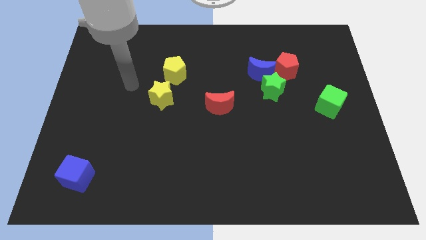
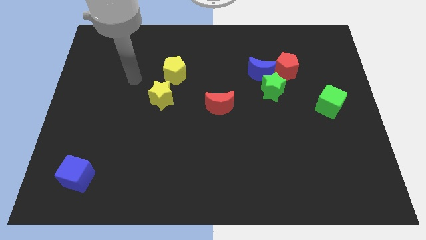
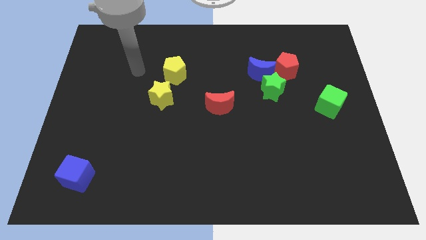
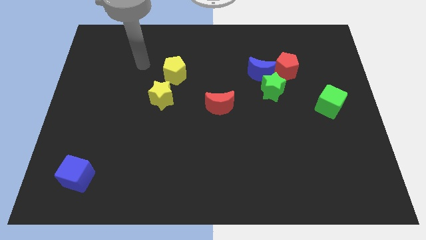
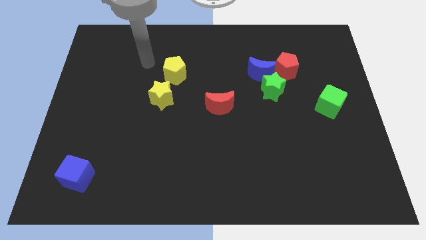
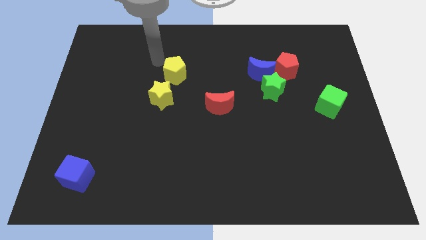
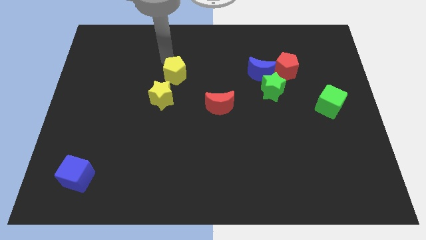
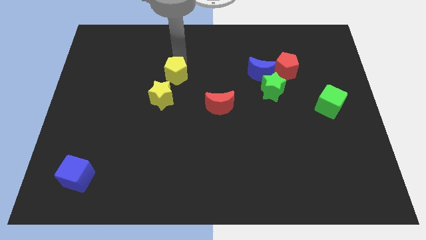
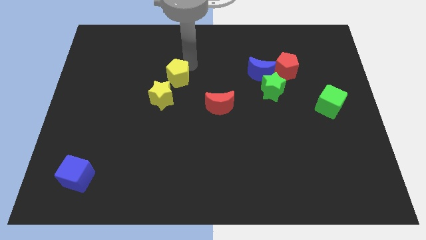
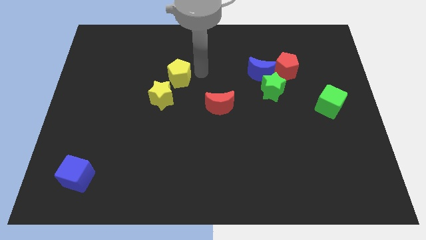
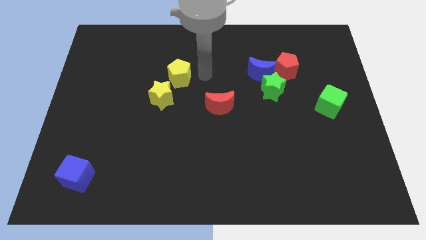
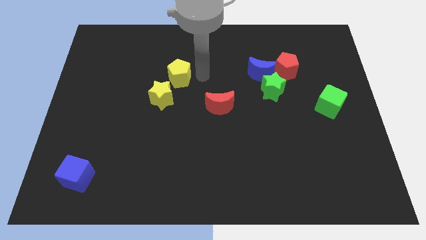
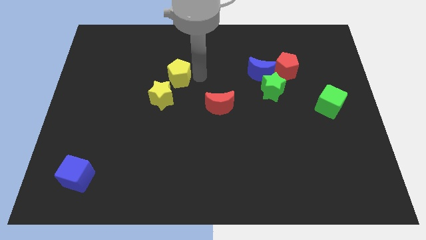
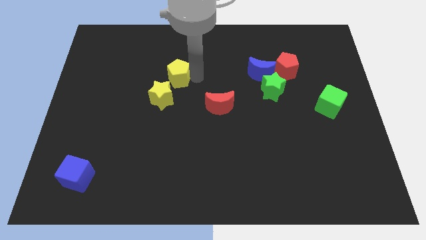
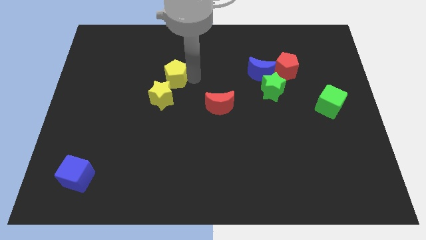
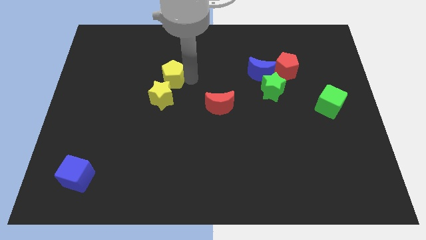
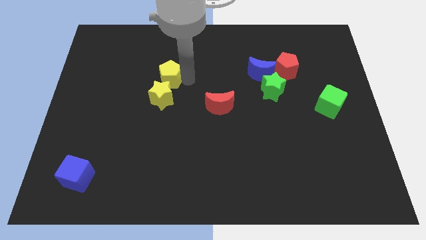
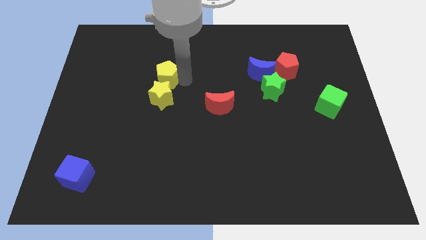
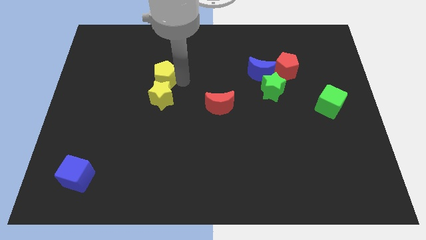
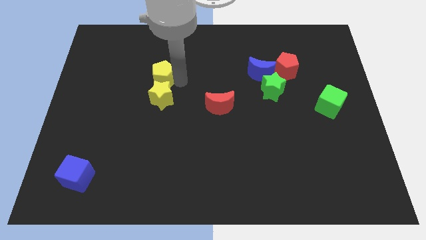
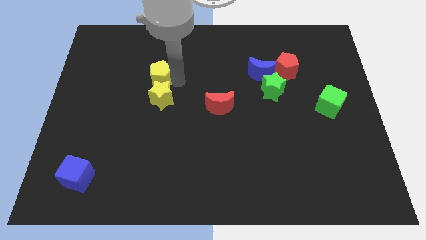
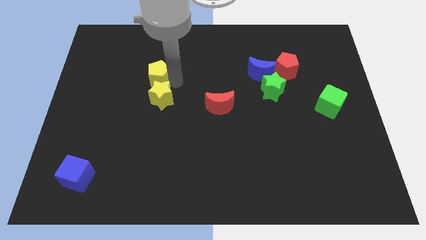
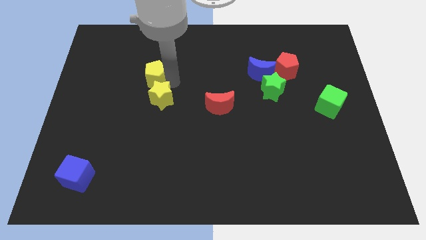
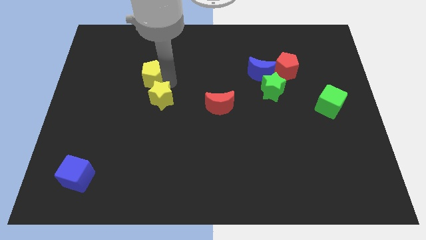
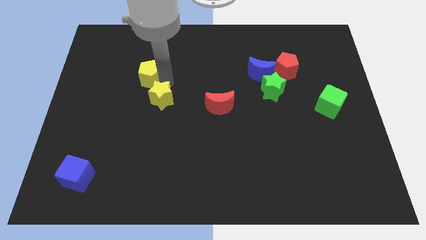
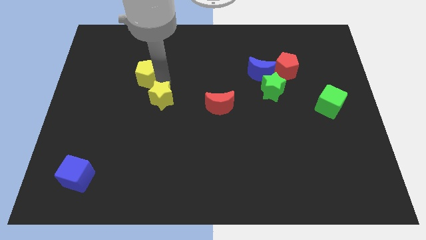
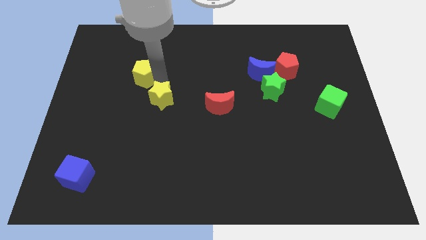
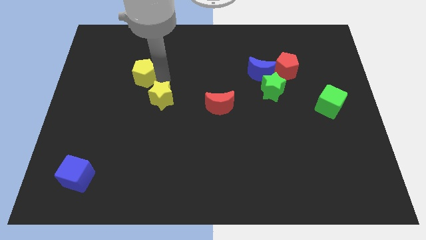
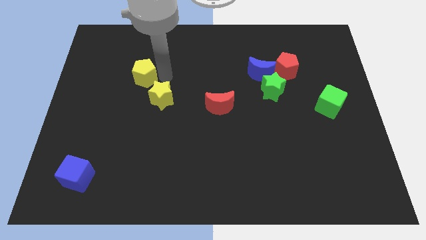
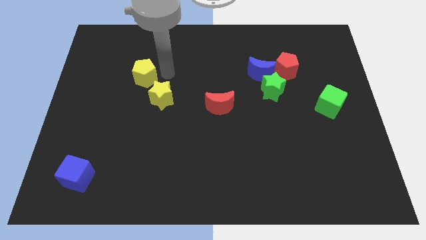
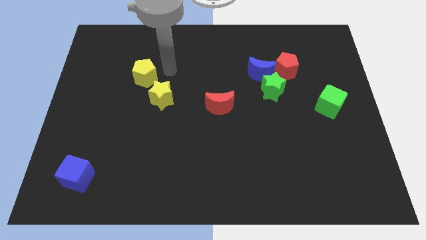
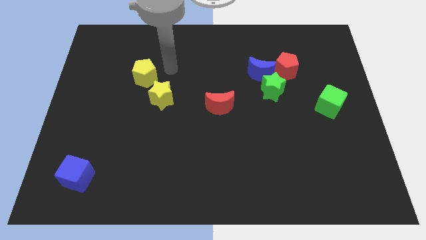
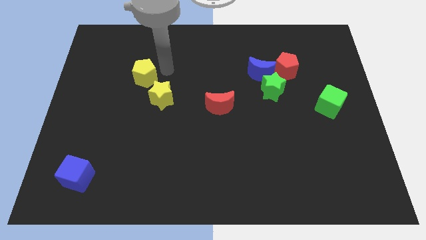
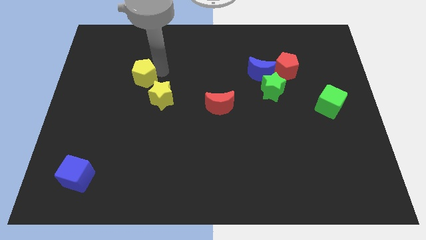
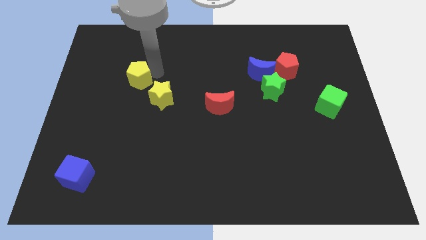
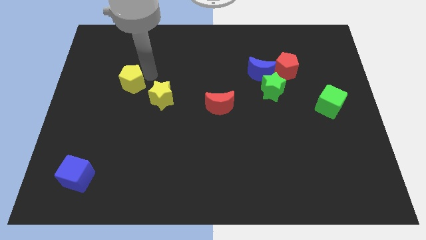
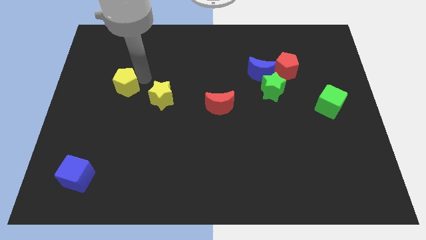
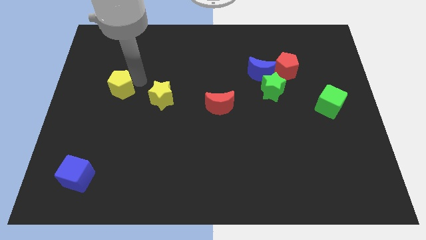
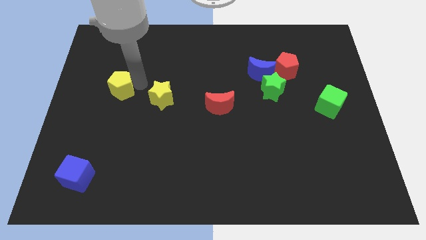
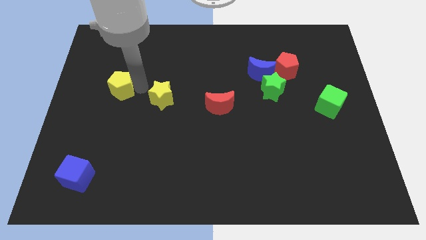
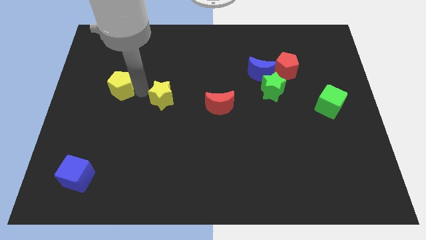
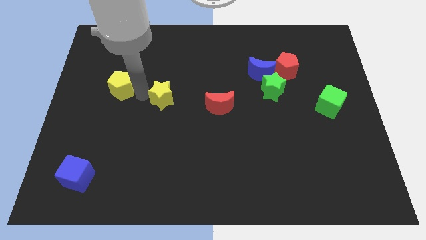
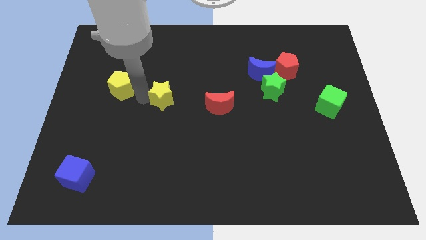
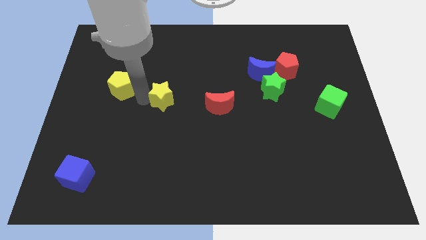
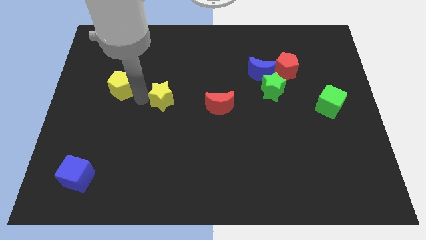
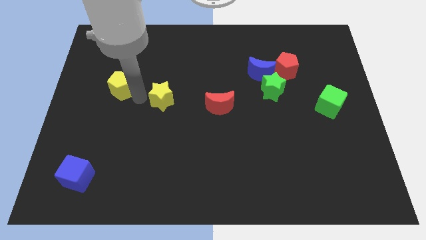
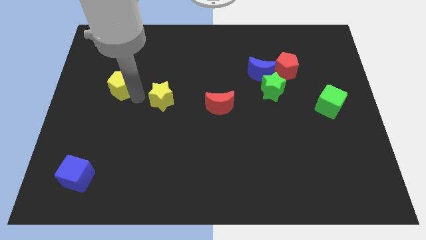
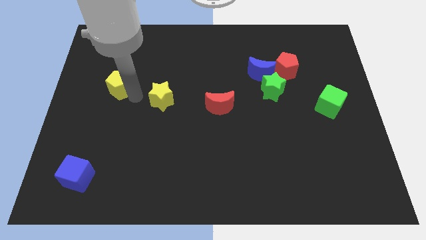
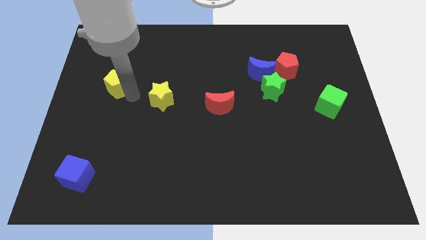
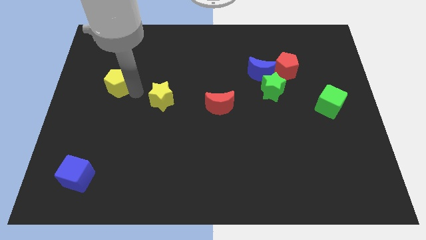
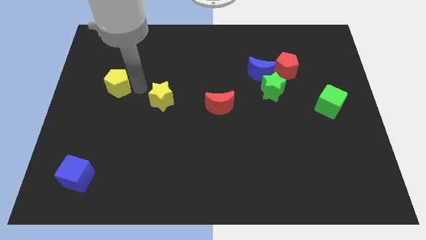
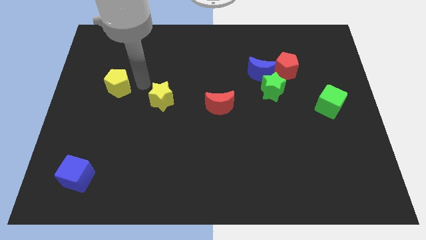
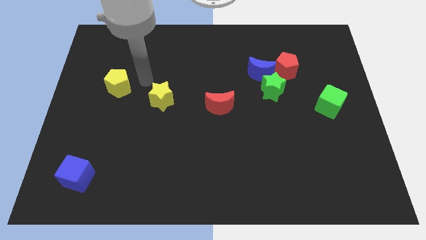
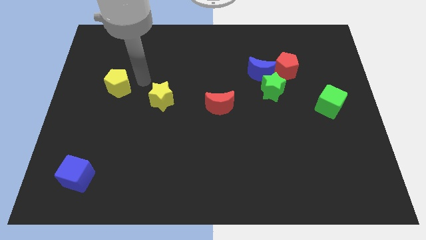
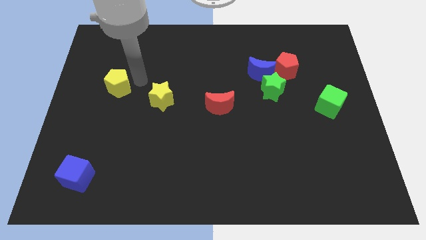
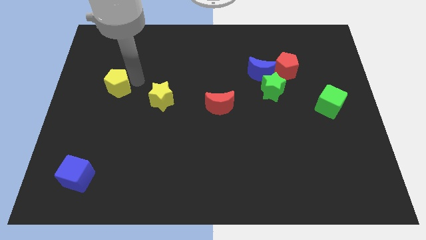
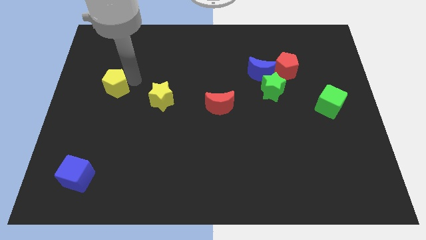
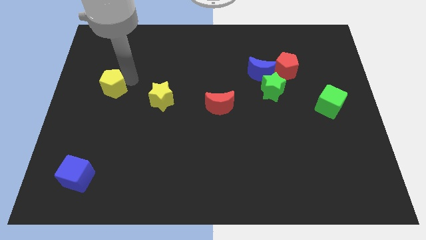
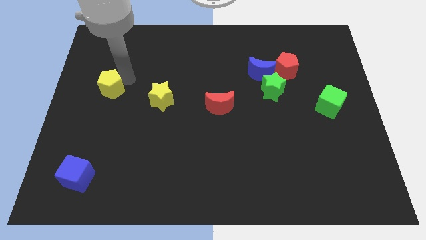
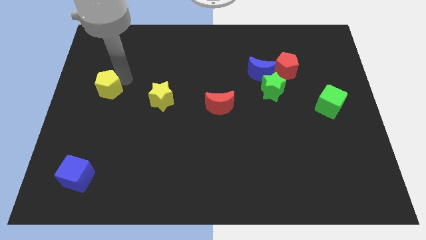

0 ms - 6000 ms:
move the yellow pentagon to the left side of the board

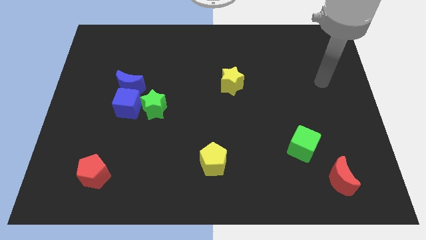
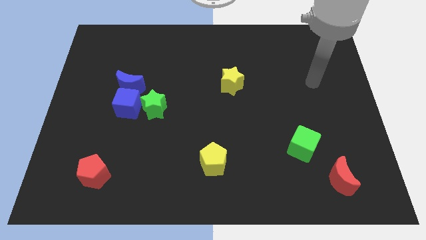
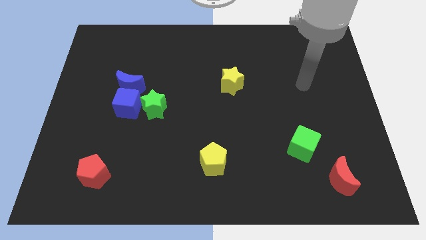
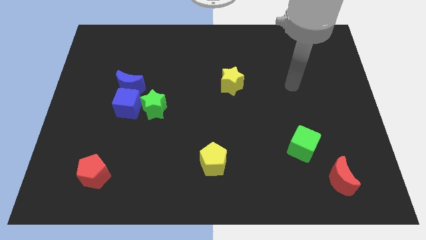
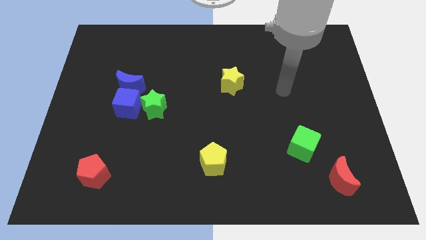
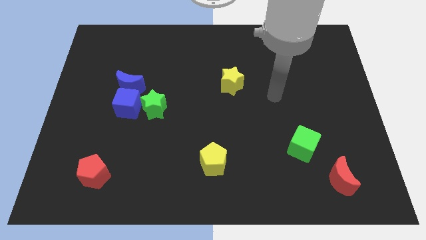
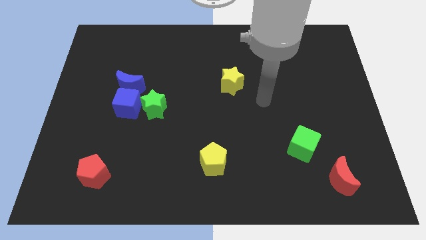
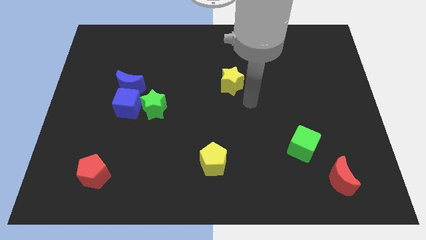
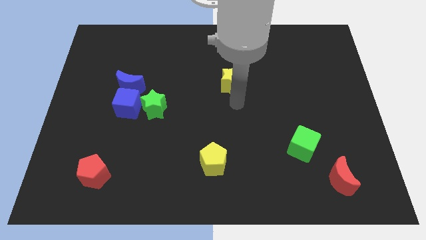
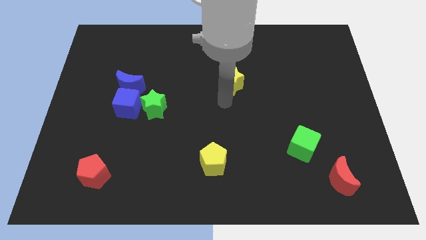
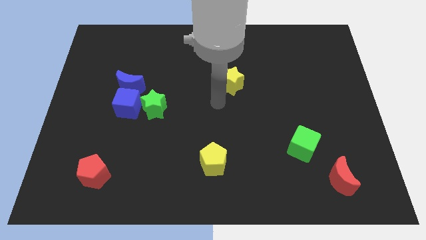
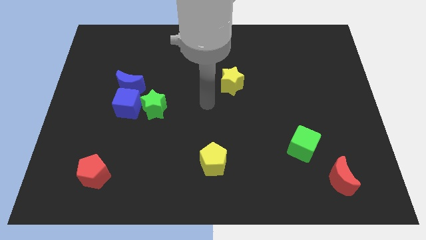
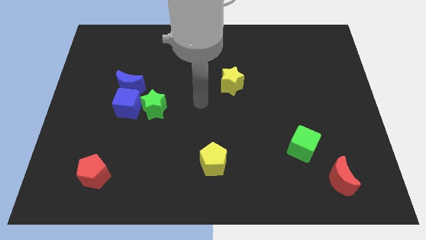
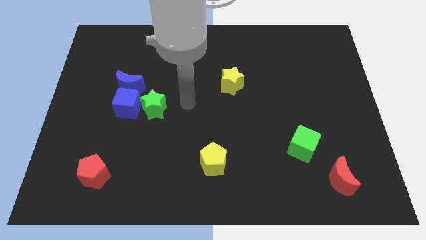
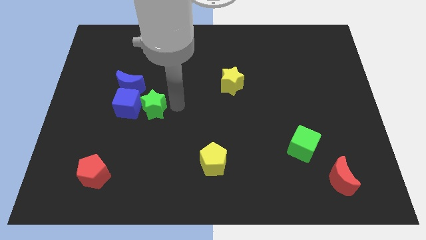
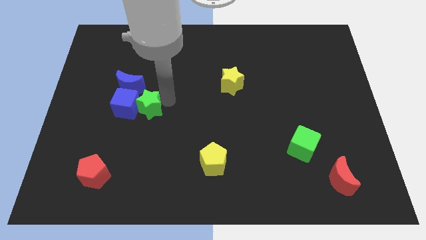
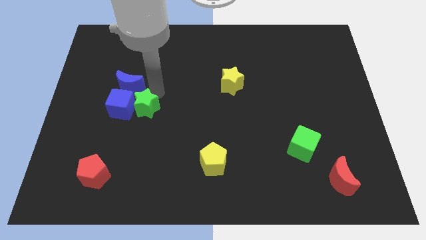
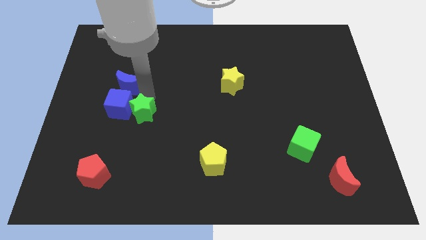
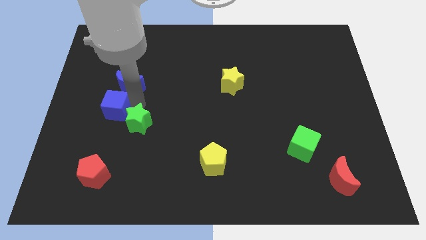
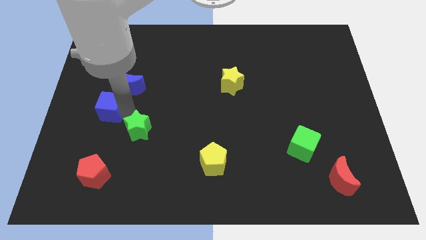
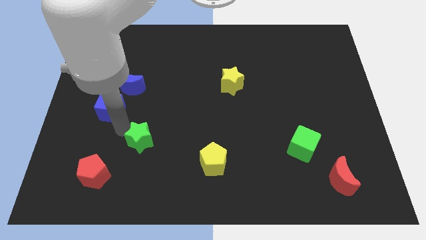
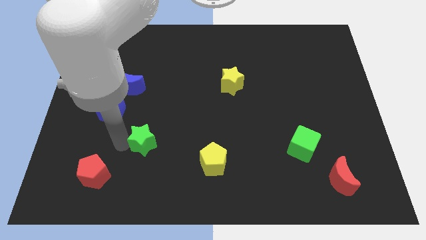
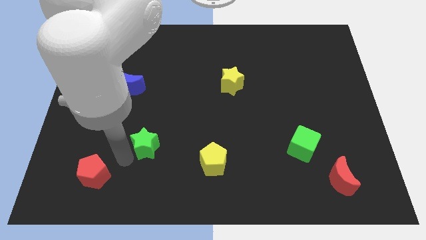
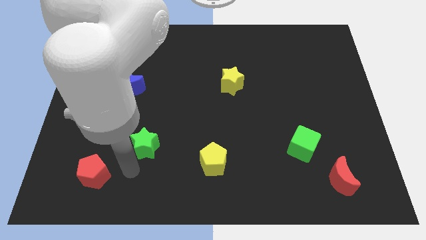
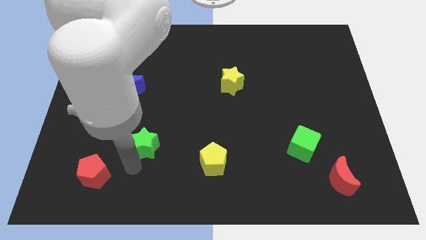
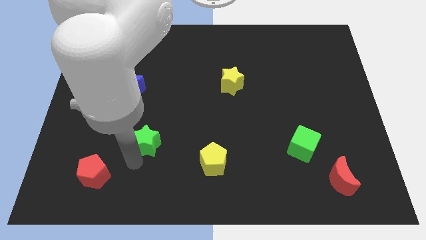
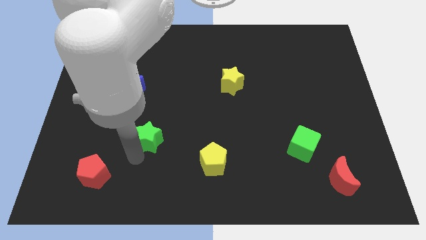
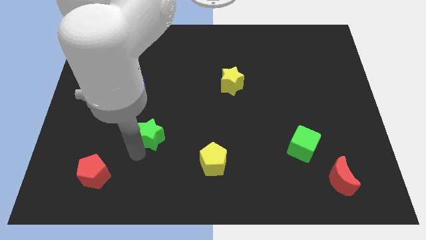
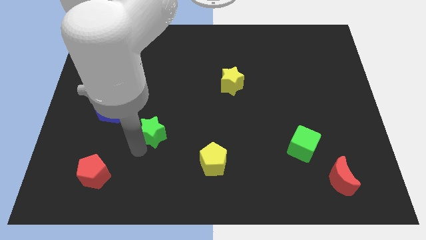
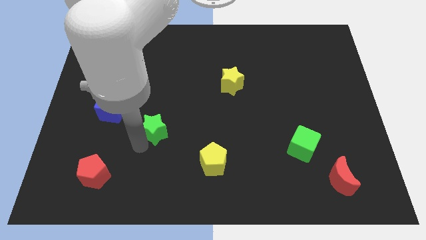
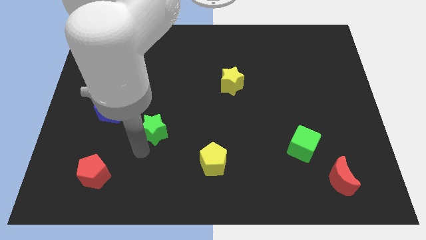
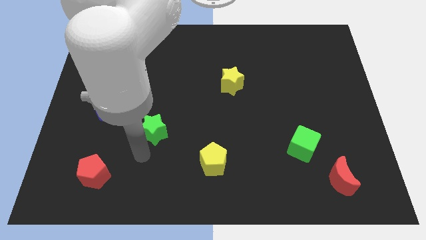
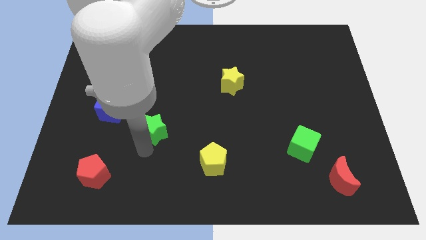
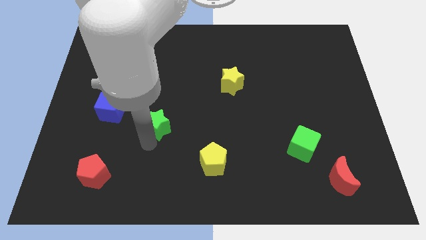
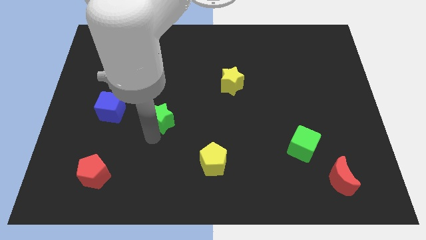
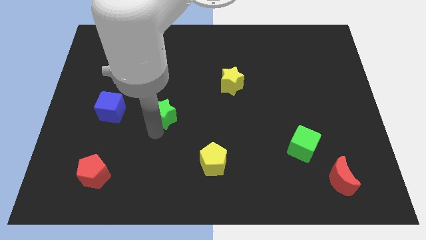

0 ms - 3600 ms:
move the green star to the center
